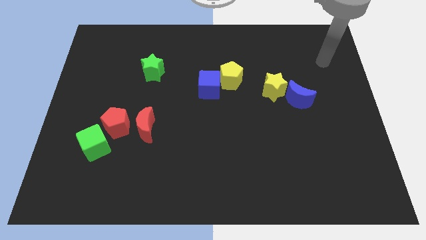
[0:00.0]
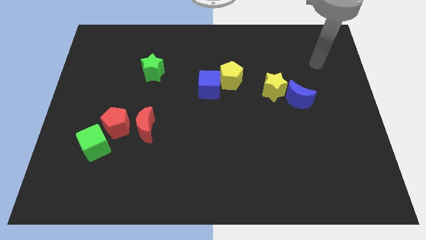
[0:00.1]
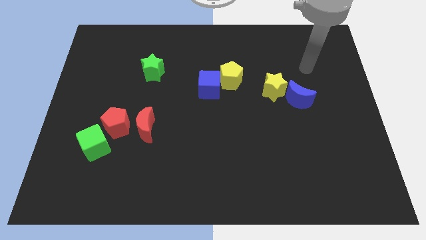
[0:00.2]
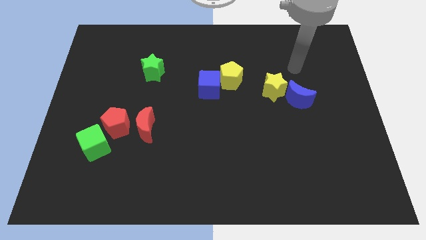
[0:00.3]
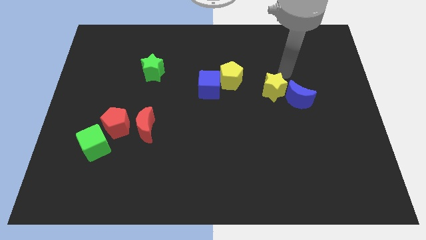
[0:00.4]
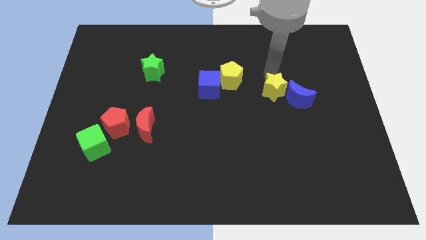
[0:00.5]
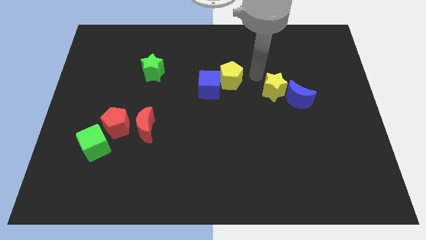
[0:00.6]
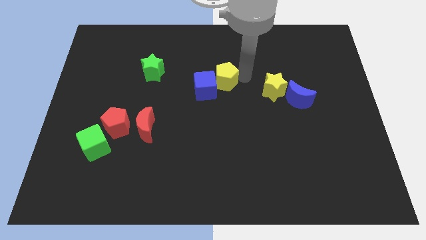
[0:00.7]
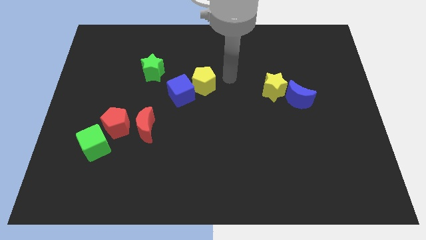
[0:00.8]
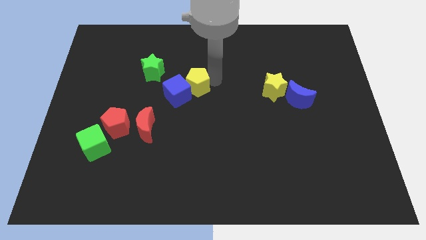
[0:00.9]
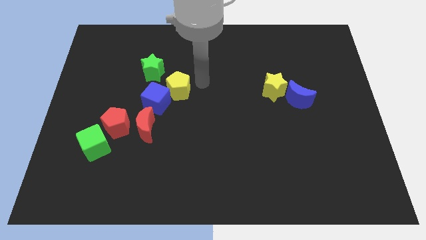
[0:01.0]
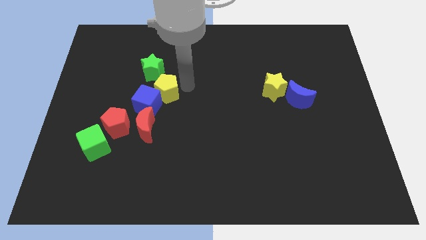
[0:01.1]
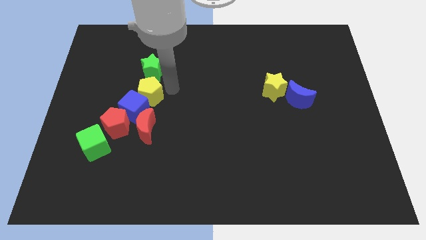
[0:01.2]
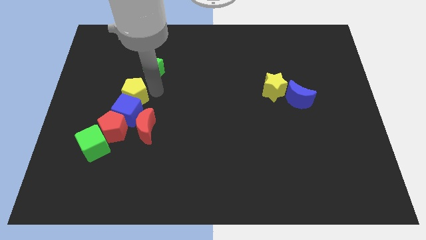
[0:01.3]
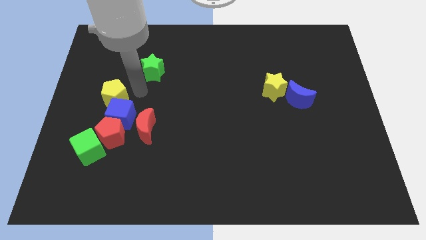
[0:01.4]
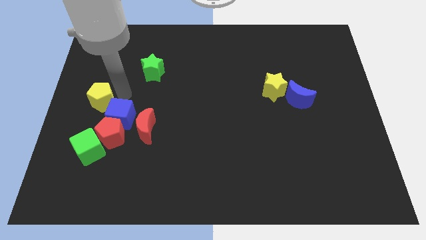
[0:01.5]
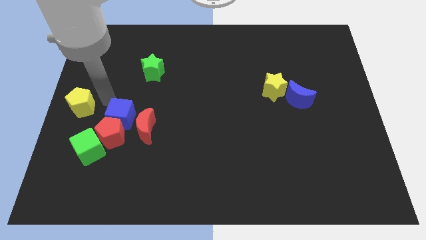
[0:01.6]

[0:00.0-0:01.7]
move the blue cube away from the yellow pentagon

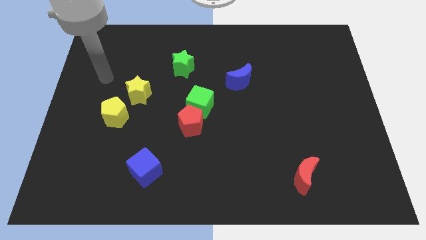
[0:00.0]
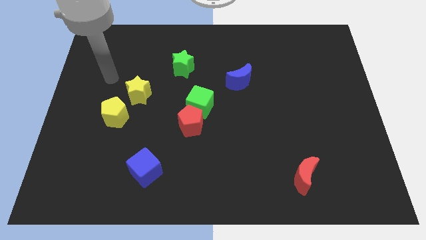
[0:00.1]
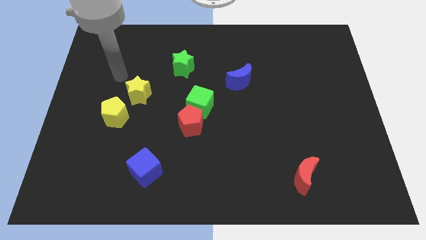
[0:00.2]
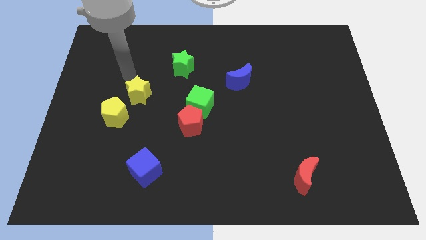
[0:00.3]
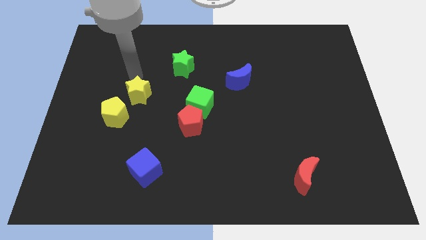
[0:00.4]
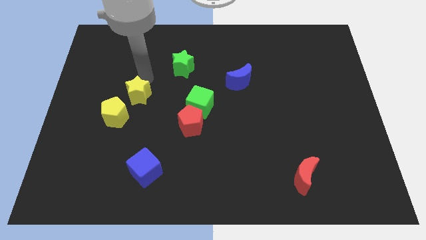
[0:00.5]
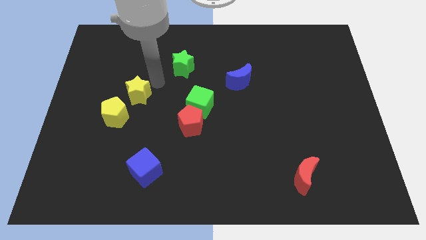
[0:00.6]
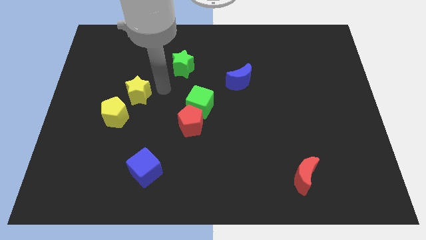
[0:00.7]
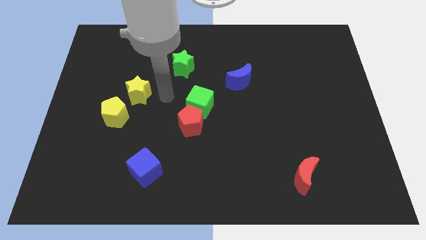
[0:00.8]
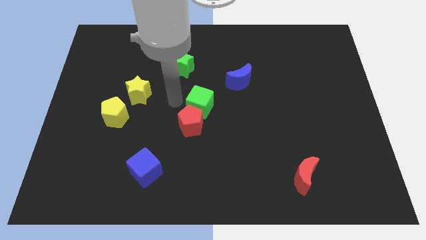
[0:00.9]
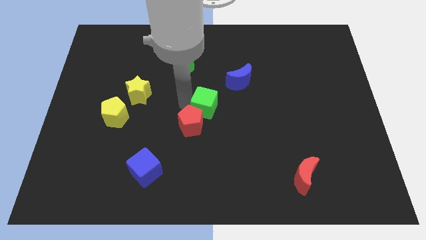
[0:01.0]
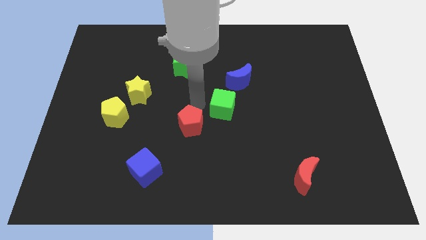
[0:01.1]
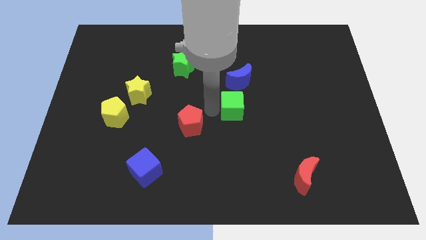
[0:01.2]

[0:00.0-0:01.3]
pull the red pentagon apart from the green cube

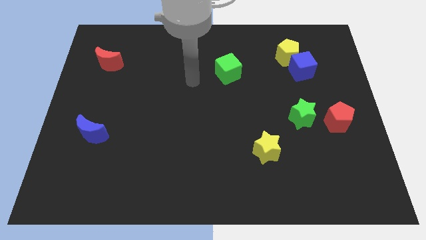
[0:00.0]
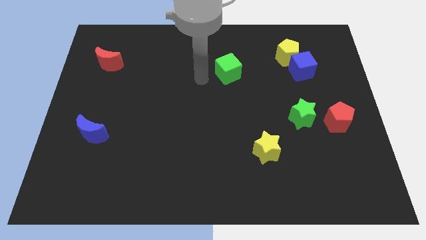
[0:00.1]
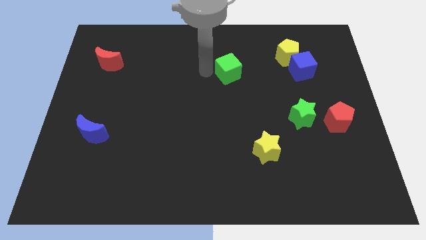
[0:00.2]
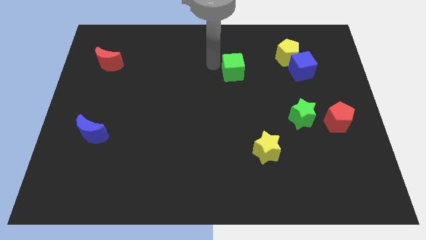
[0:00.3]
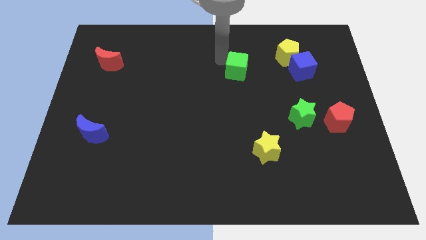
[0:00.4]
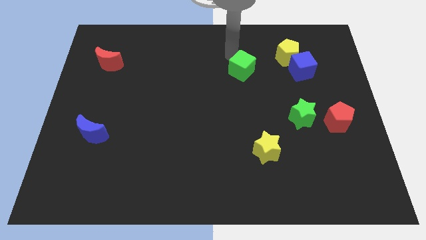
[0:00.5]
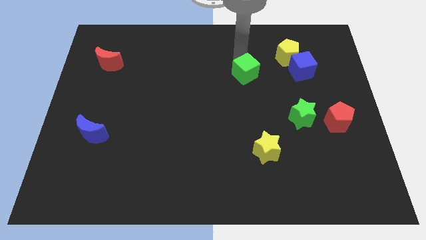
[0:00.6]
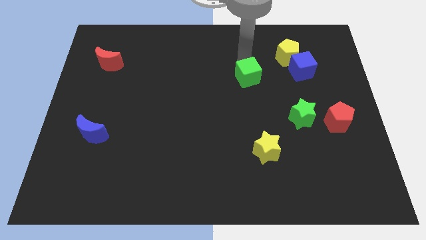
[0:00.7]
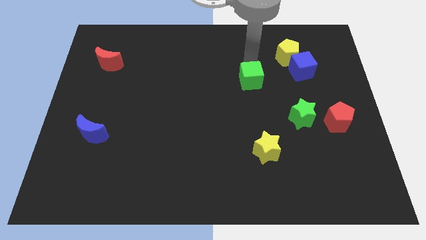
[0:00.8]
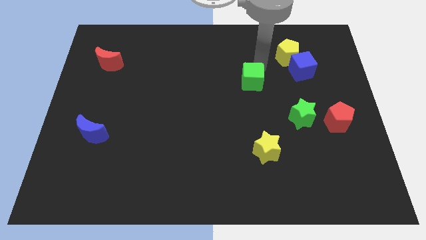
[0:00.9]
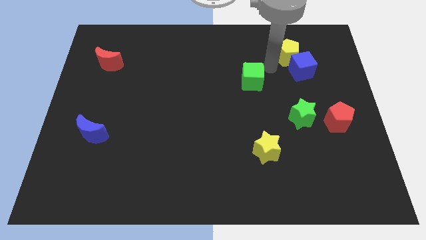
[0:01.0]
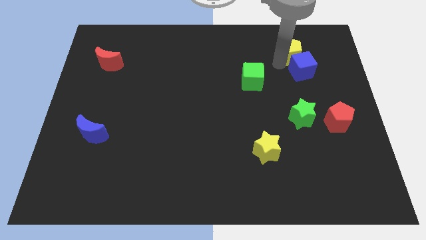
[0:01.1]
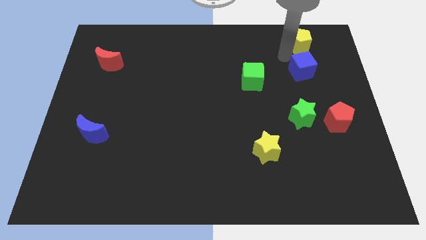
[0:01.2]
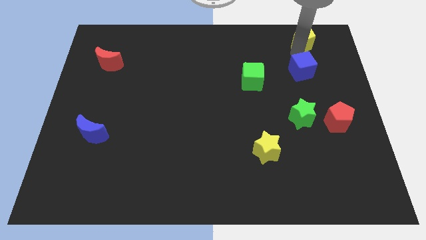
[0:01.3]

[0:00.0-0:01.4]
separate the blue cube from the yellow pentagon

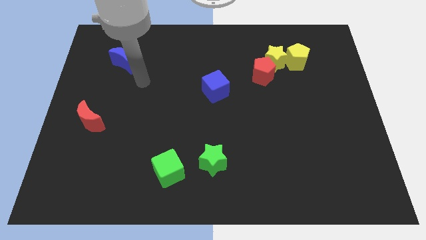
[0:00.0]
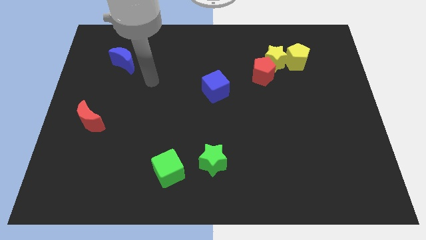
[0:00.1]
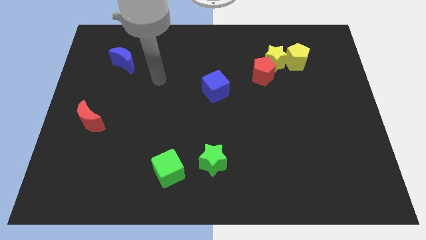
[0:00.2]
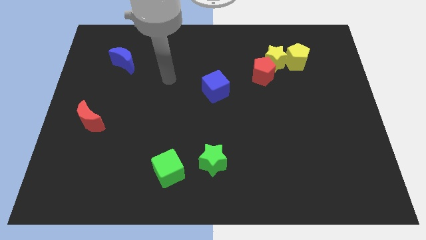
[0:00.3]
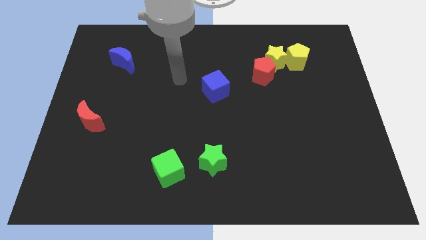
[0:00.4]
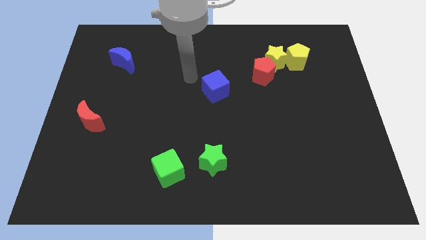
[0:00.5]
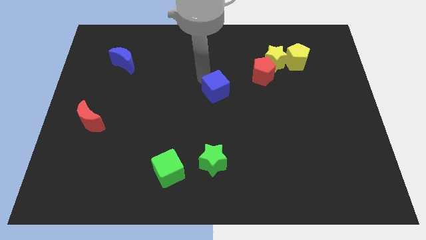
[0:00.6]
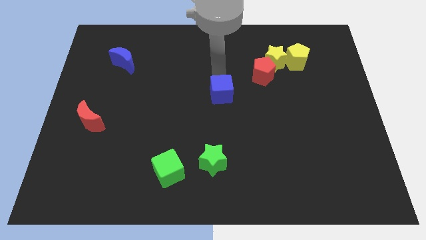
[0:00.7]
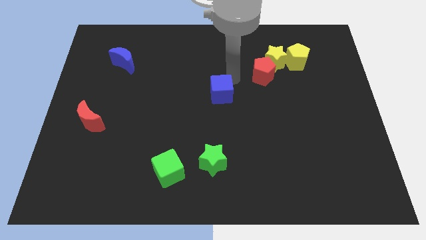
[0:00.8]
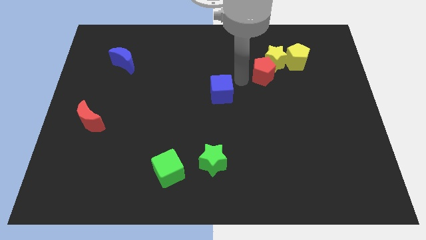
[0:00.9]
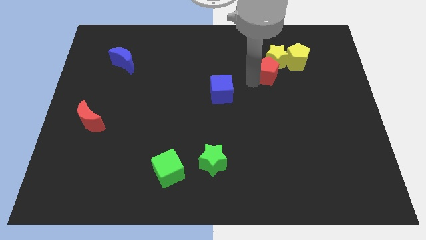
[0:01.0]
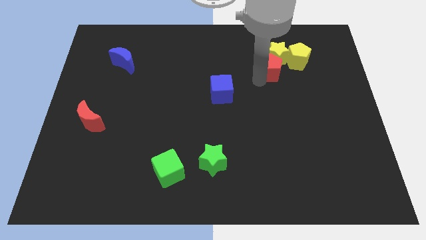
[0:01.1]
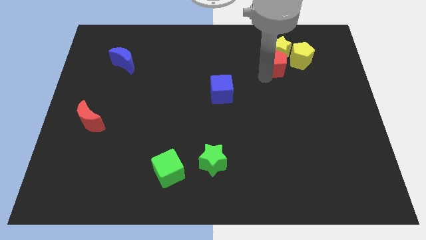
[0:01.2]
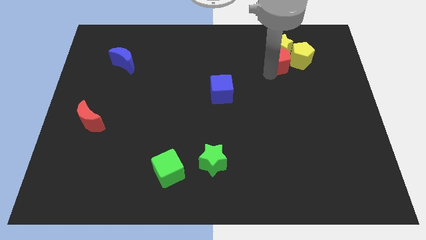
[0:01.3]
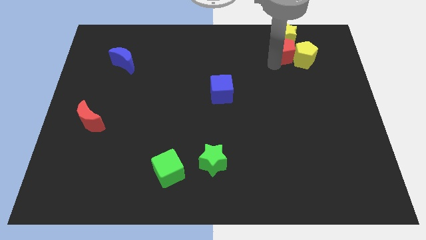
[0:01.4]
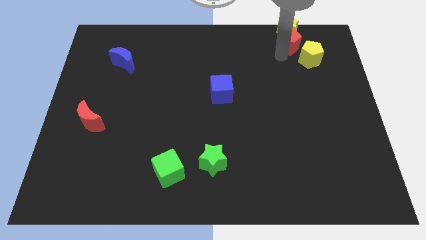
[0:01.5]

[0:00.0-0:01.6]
pull the yellow pentagon apart from the yellow star

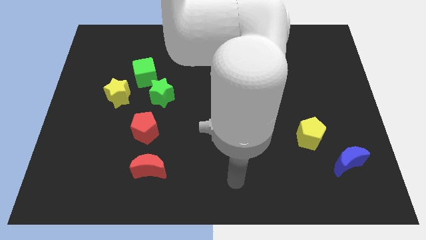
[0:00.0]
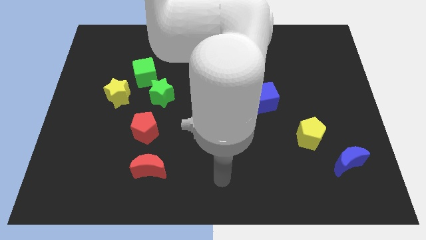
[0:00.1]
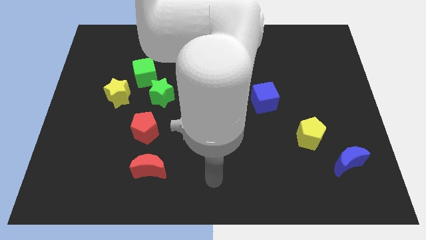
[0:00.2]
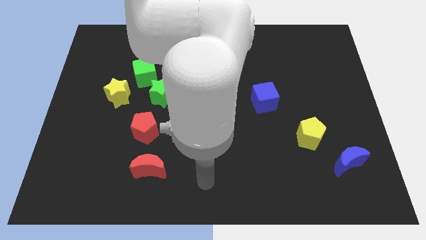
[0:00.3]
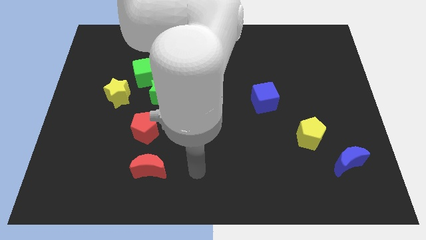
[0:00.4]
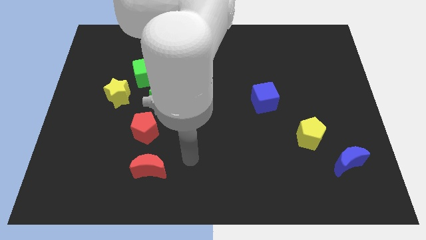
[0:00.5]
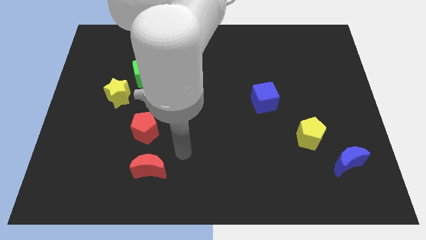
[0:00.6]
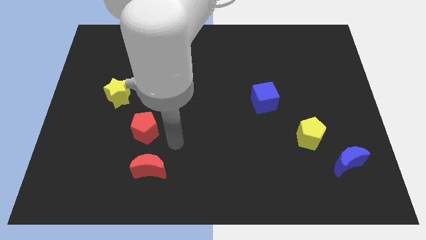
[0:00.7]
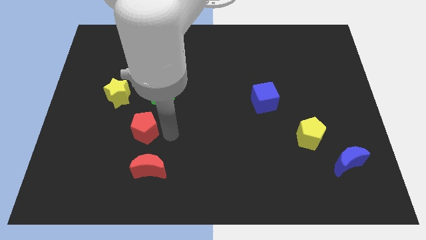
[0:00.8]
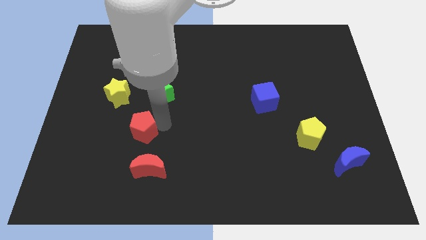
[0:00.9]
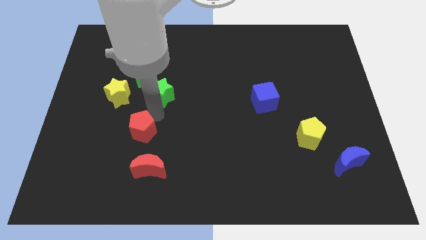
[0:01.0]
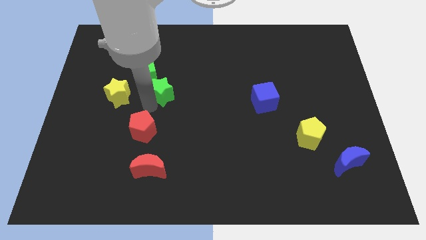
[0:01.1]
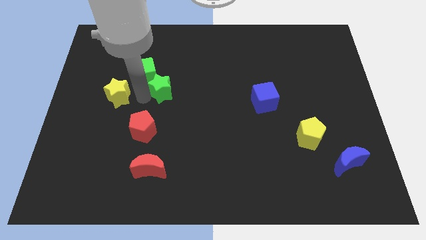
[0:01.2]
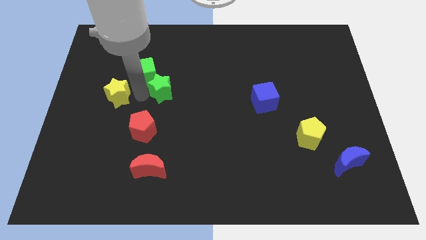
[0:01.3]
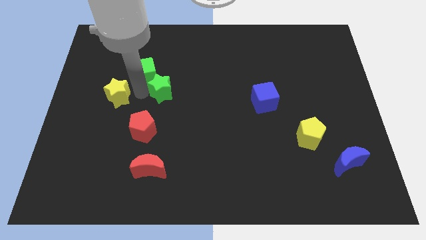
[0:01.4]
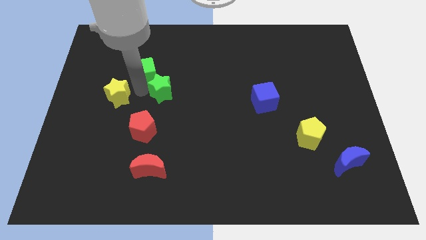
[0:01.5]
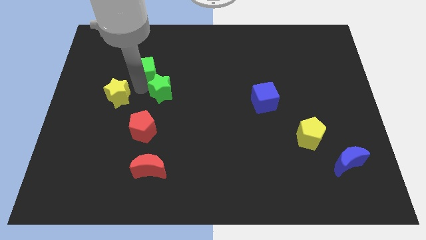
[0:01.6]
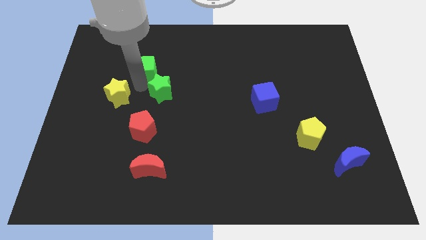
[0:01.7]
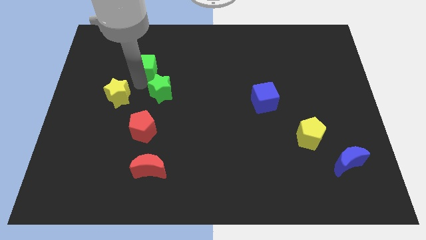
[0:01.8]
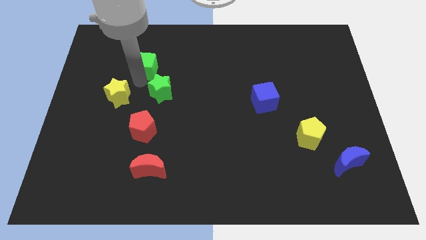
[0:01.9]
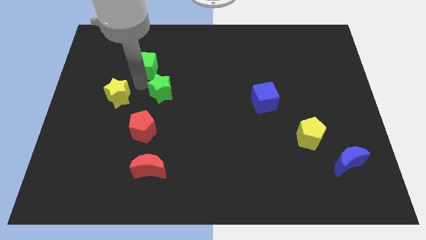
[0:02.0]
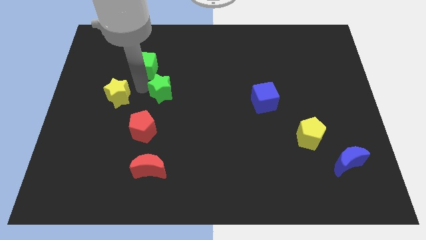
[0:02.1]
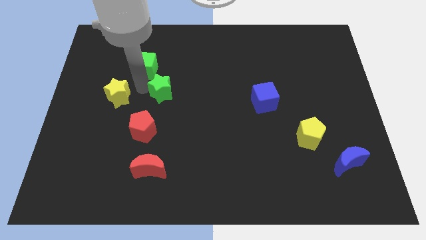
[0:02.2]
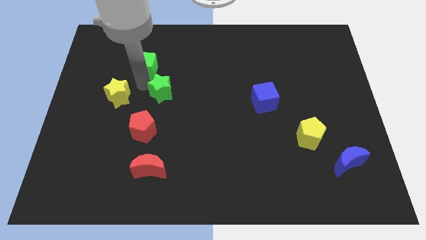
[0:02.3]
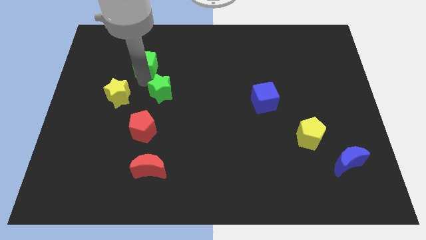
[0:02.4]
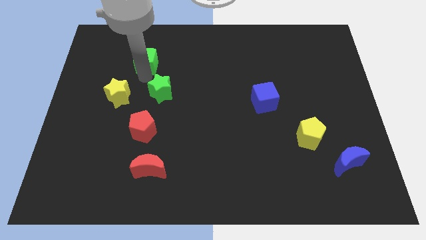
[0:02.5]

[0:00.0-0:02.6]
move the green cube away from the green star and yellow star

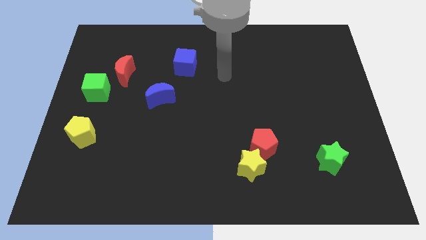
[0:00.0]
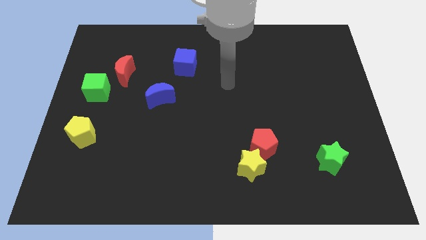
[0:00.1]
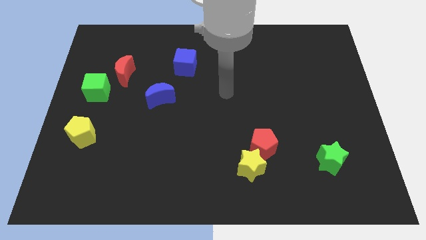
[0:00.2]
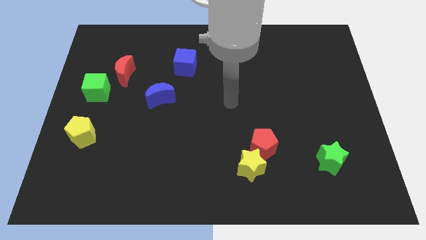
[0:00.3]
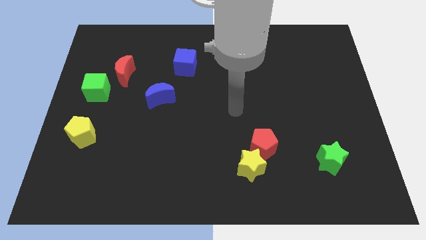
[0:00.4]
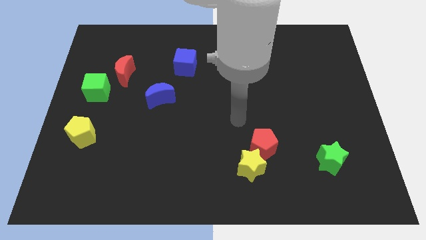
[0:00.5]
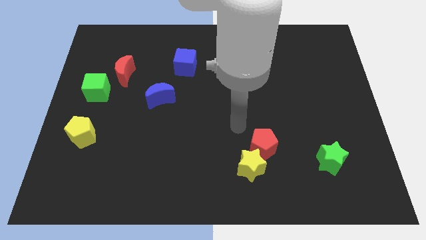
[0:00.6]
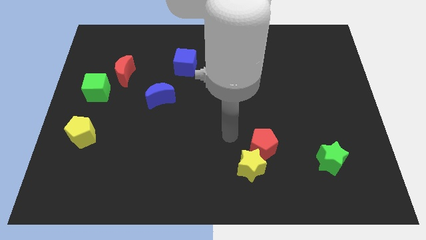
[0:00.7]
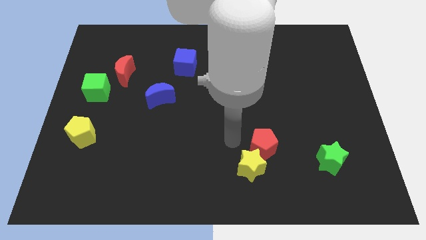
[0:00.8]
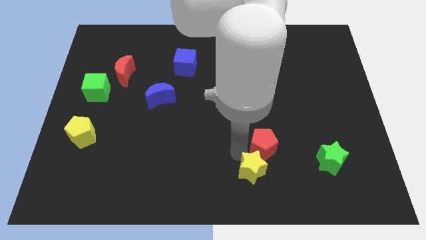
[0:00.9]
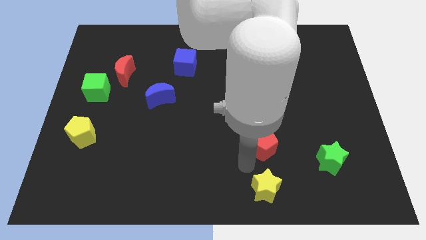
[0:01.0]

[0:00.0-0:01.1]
separate the red pentagon from the yellow star
